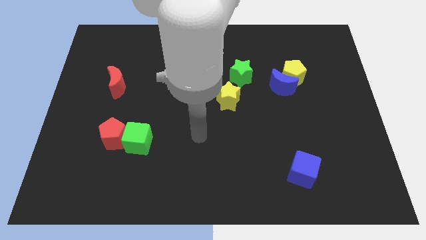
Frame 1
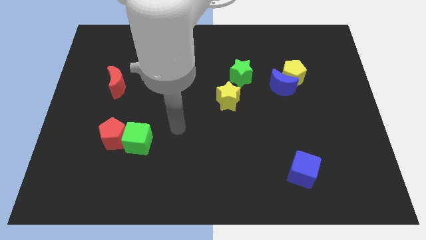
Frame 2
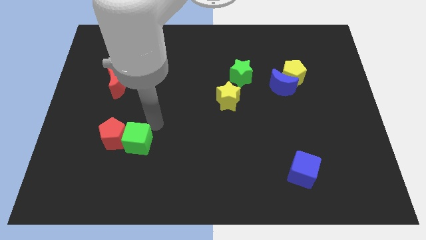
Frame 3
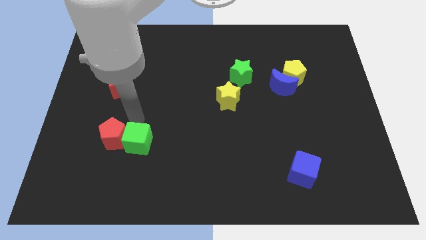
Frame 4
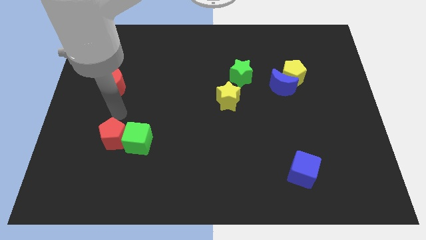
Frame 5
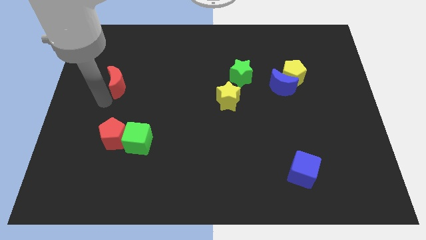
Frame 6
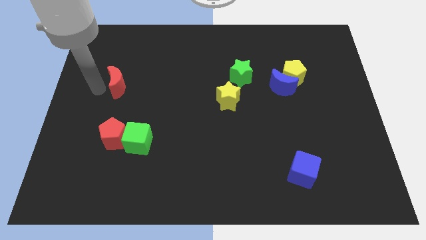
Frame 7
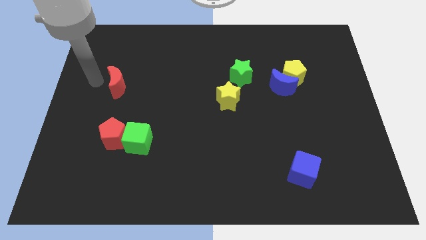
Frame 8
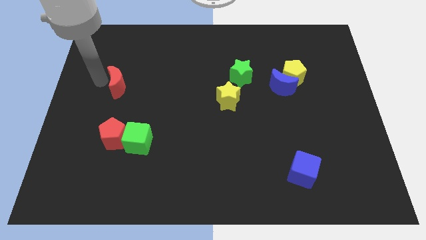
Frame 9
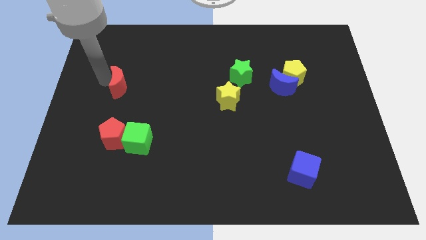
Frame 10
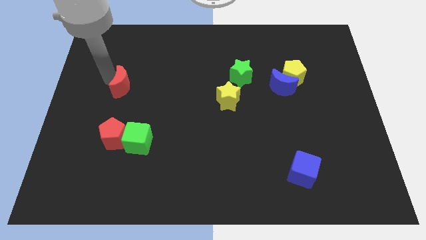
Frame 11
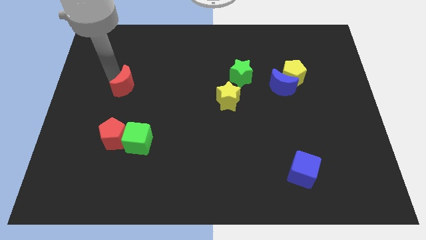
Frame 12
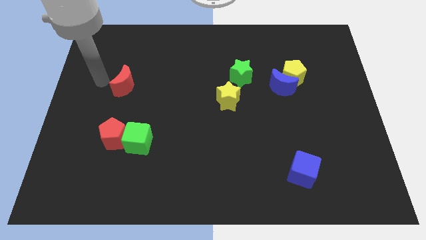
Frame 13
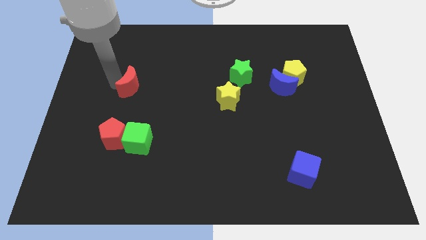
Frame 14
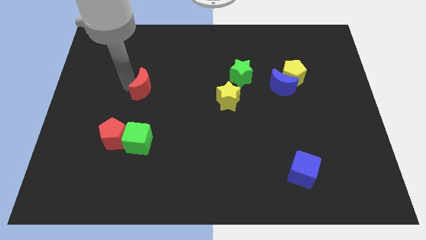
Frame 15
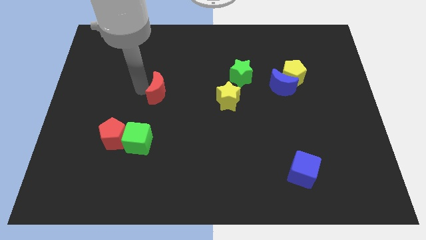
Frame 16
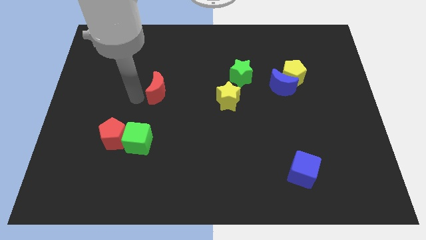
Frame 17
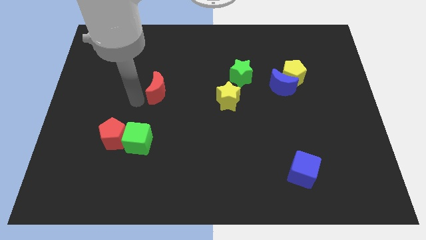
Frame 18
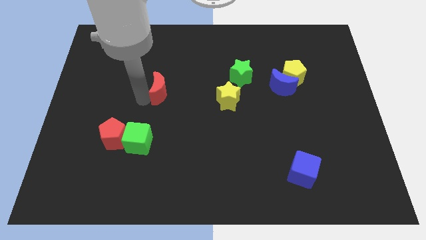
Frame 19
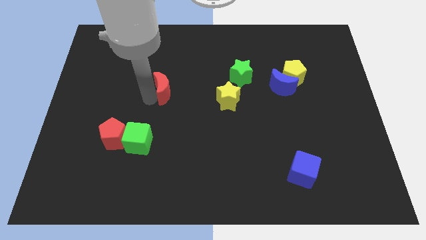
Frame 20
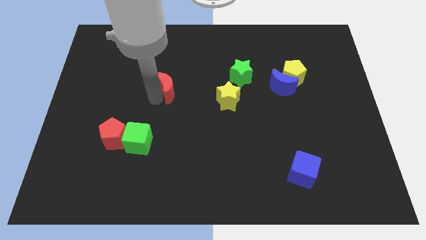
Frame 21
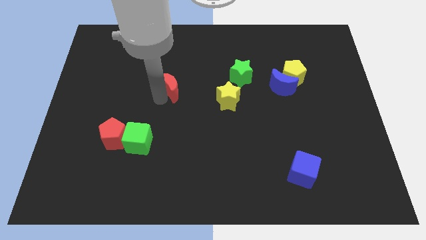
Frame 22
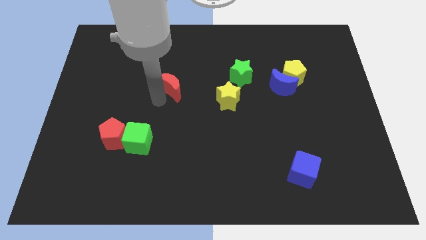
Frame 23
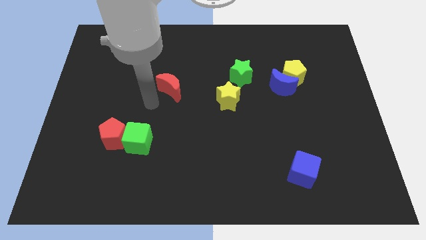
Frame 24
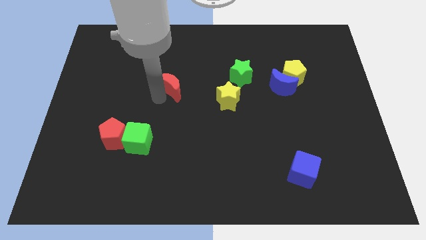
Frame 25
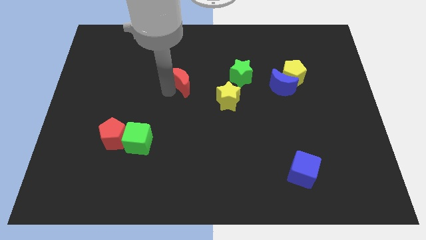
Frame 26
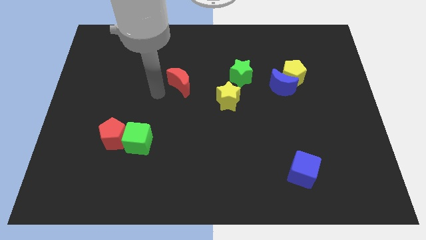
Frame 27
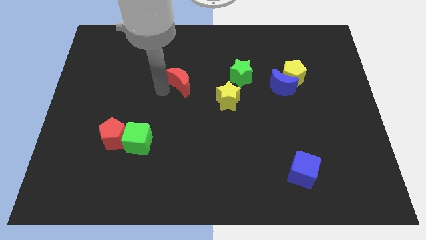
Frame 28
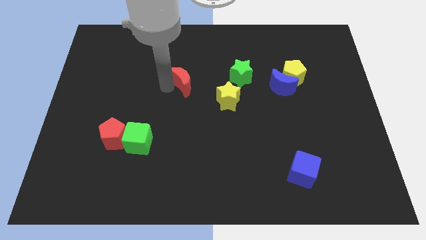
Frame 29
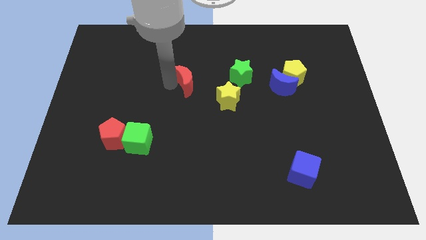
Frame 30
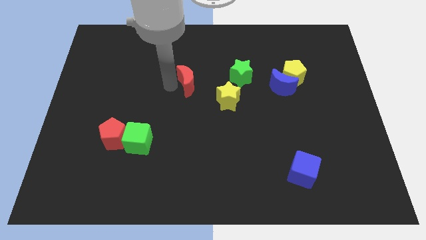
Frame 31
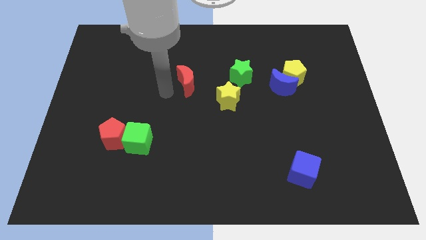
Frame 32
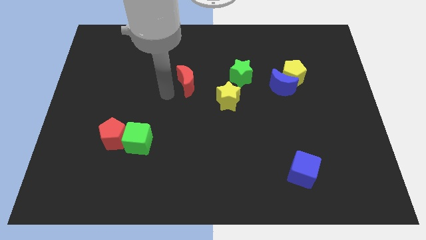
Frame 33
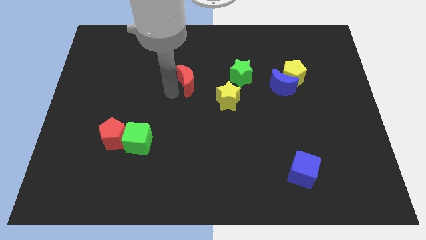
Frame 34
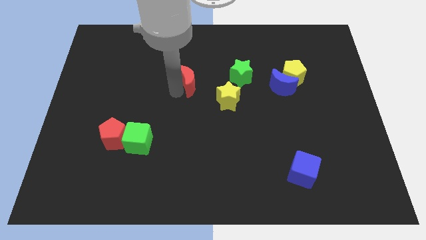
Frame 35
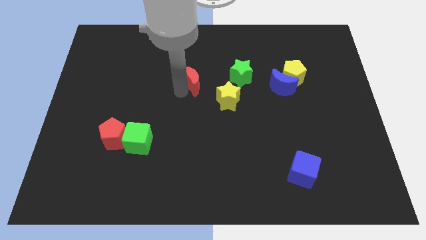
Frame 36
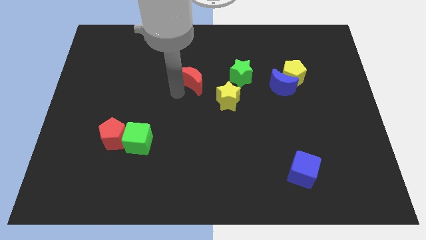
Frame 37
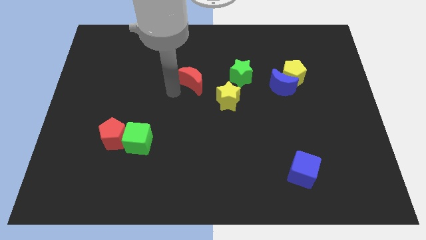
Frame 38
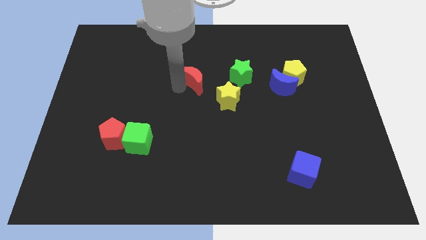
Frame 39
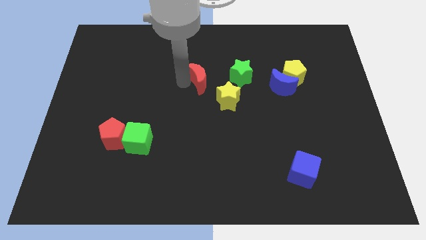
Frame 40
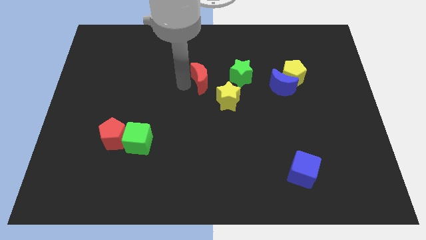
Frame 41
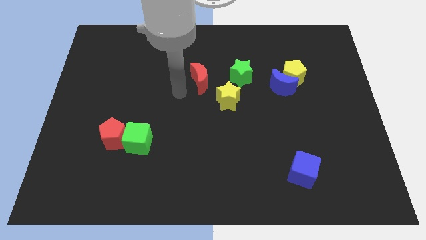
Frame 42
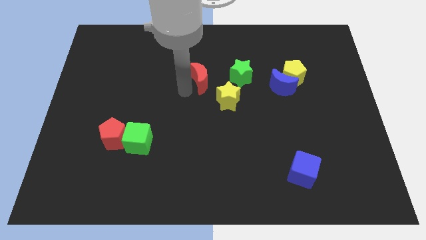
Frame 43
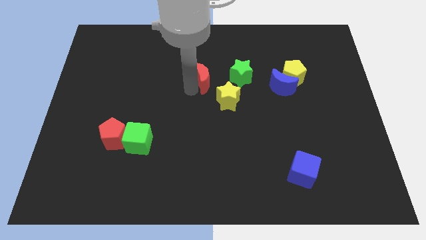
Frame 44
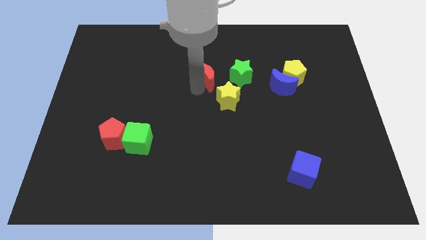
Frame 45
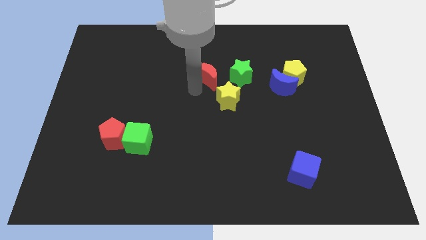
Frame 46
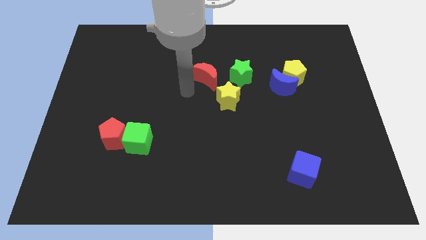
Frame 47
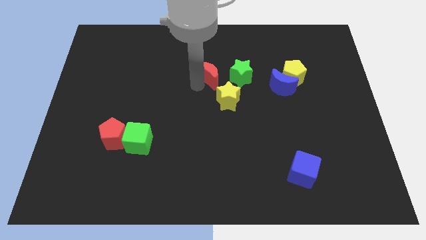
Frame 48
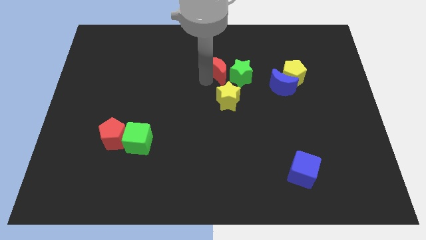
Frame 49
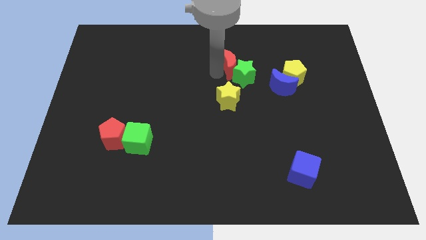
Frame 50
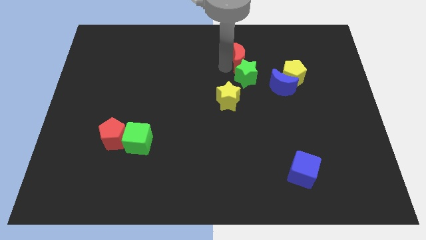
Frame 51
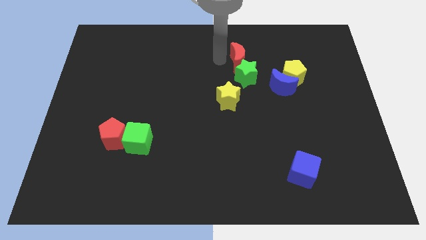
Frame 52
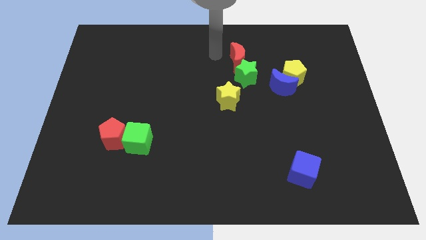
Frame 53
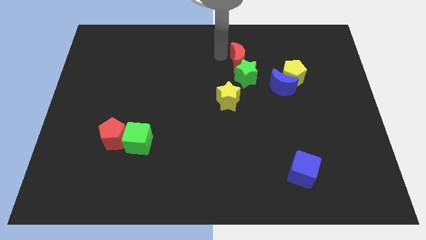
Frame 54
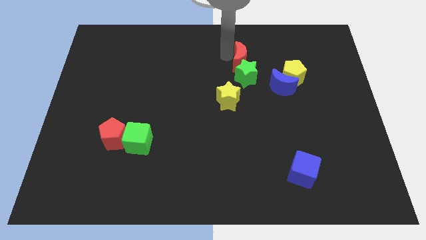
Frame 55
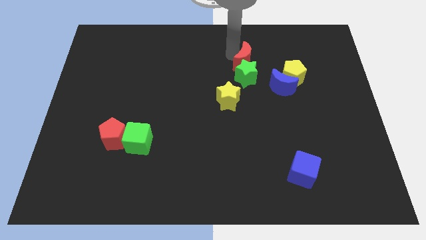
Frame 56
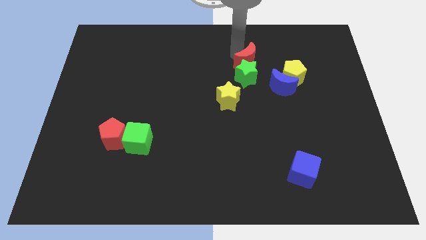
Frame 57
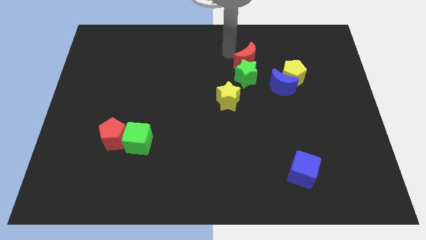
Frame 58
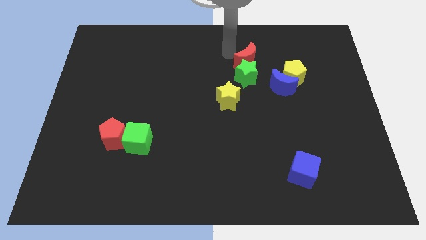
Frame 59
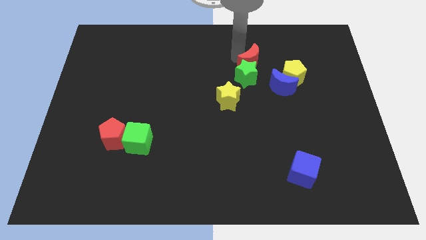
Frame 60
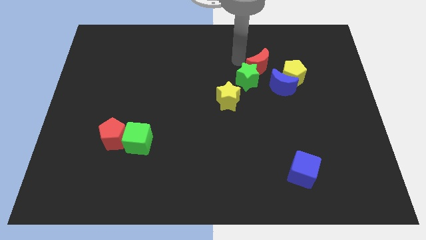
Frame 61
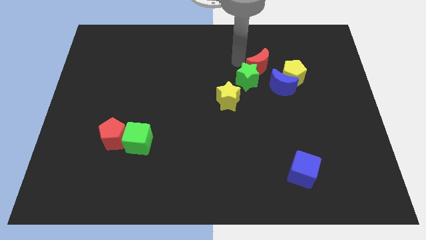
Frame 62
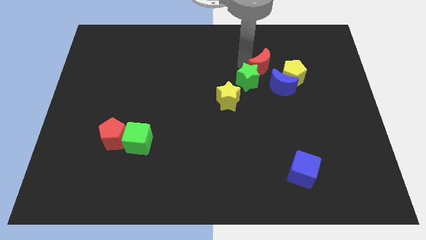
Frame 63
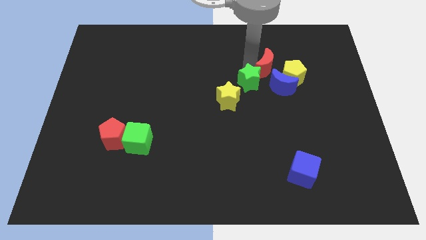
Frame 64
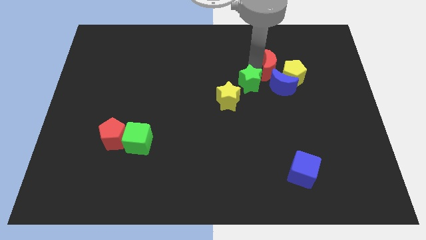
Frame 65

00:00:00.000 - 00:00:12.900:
move the red moon towards the yellow pentagon
